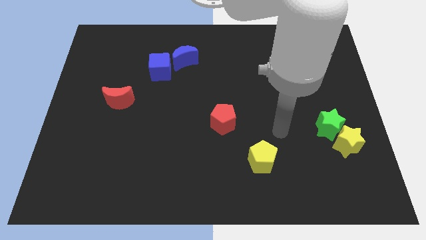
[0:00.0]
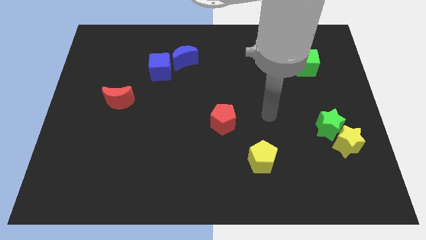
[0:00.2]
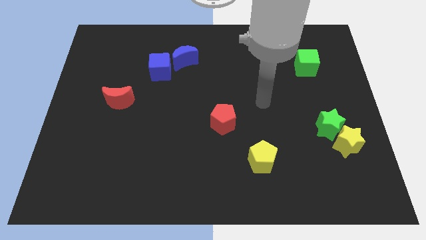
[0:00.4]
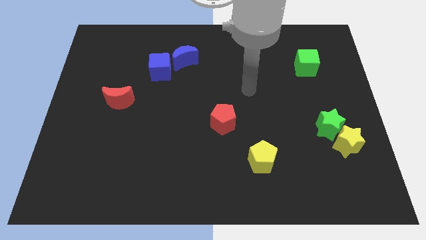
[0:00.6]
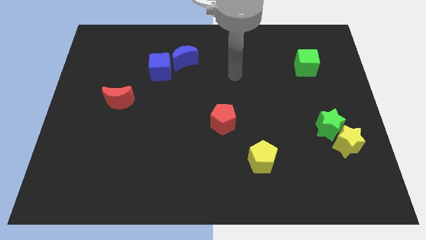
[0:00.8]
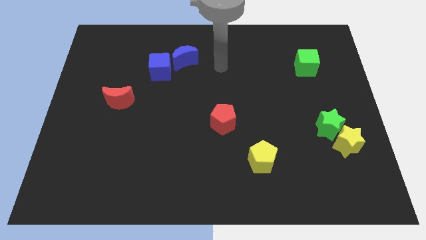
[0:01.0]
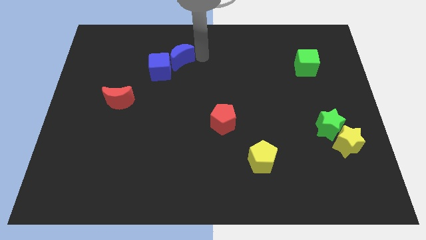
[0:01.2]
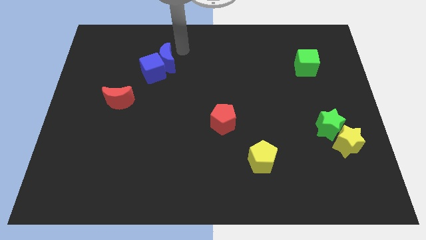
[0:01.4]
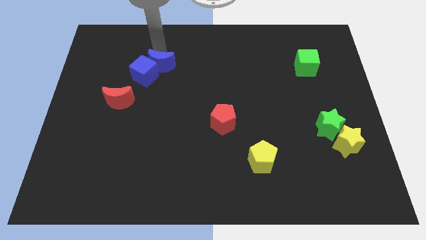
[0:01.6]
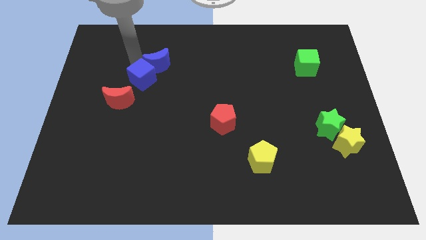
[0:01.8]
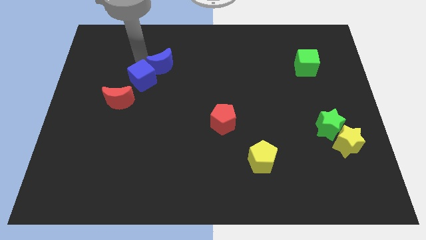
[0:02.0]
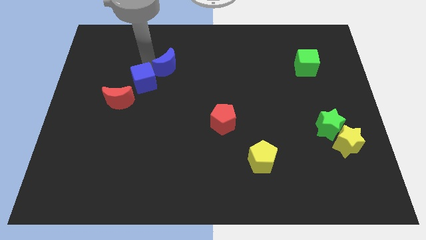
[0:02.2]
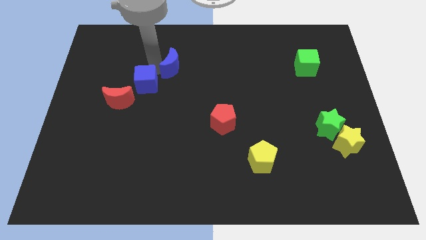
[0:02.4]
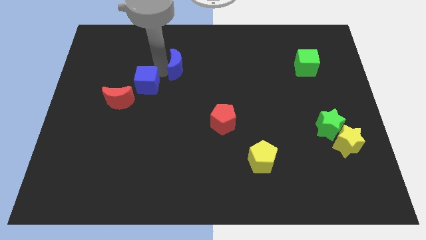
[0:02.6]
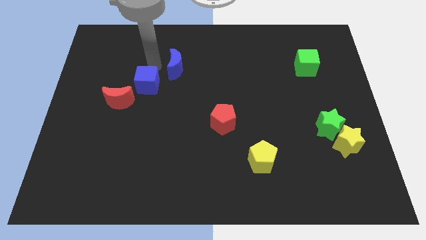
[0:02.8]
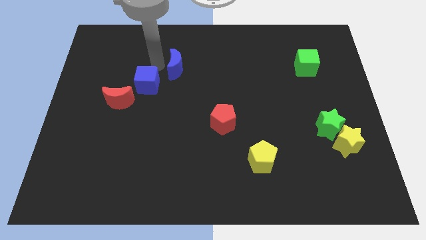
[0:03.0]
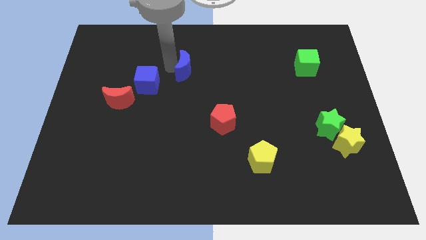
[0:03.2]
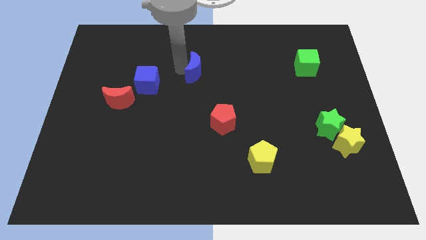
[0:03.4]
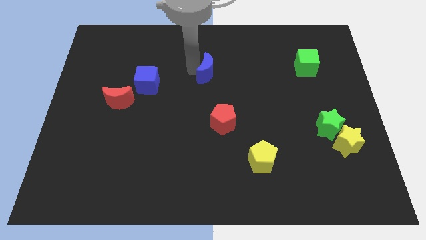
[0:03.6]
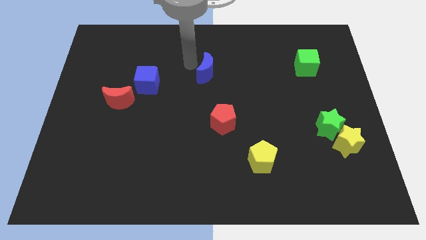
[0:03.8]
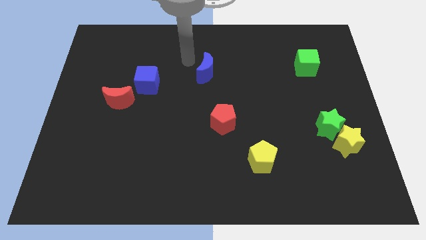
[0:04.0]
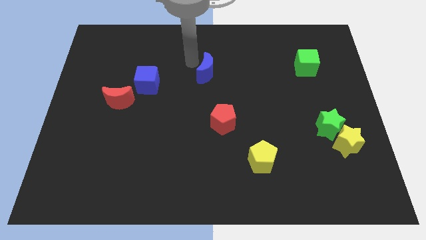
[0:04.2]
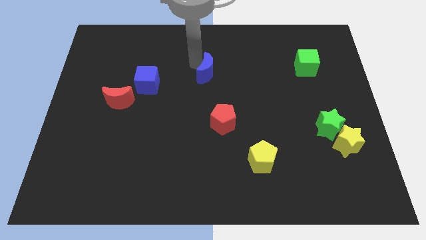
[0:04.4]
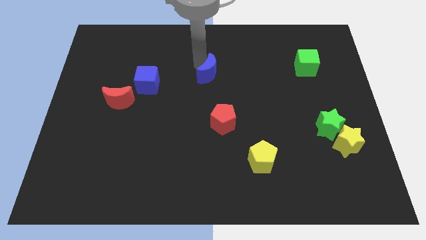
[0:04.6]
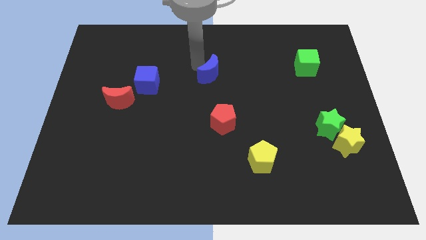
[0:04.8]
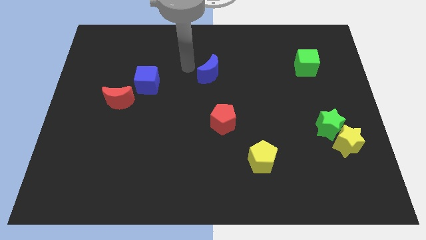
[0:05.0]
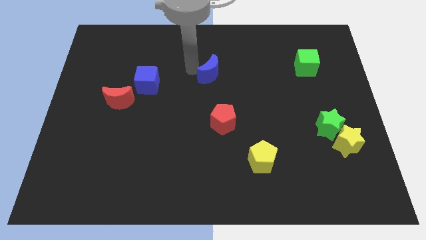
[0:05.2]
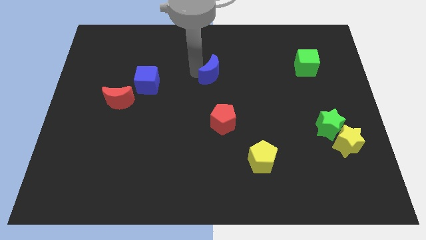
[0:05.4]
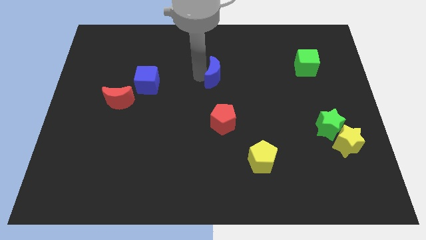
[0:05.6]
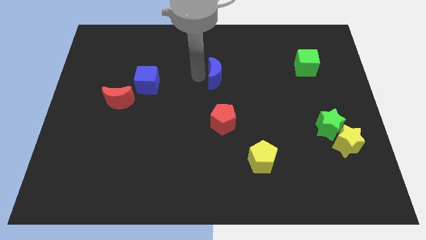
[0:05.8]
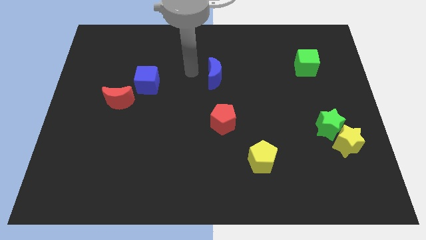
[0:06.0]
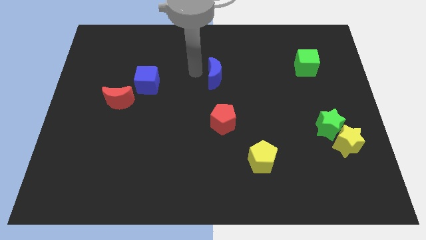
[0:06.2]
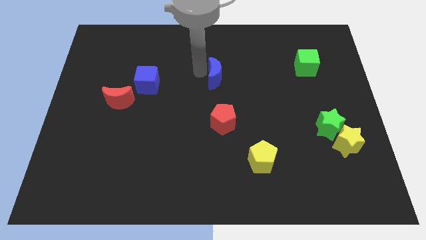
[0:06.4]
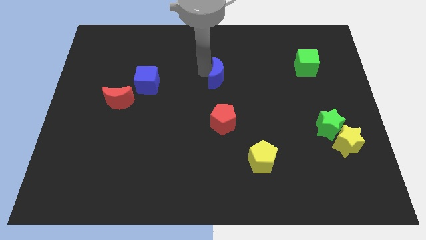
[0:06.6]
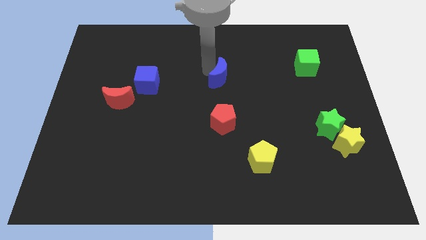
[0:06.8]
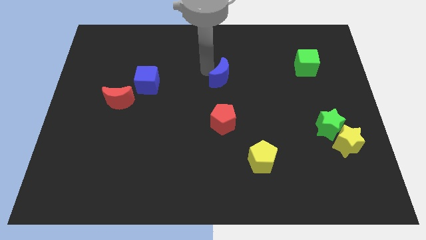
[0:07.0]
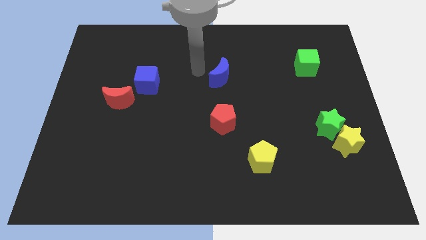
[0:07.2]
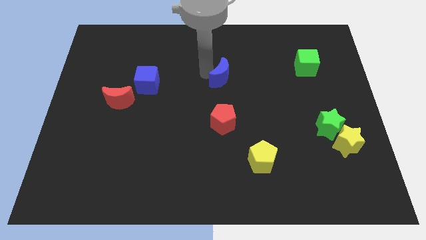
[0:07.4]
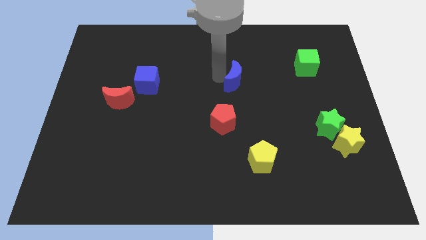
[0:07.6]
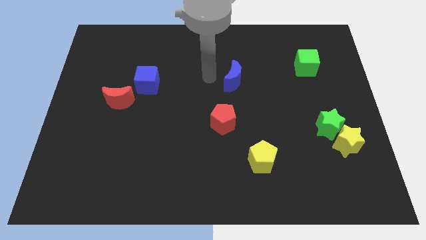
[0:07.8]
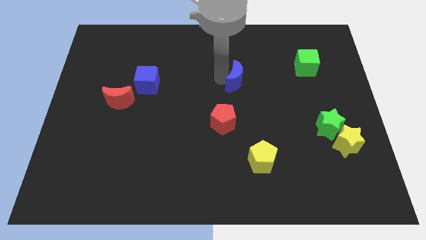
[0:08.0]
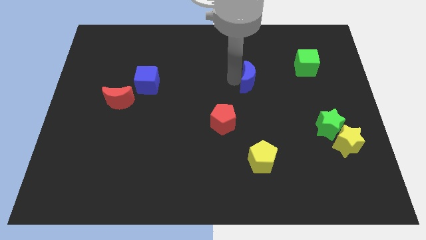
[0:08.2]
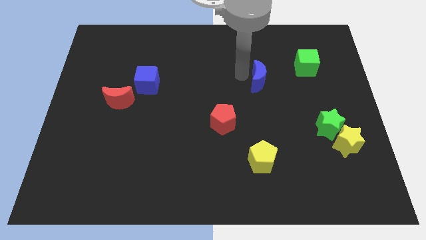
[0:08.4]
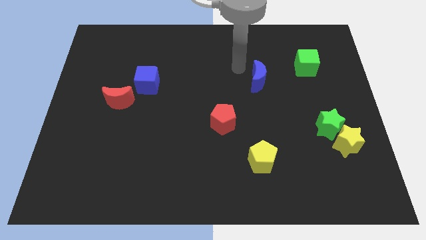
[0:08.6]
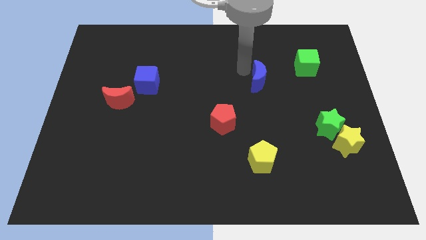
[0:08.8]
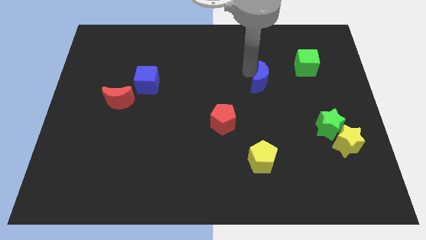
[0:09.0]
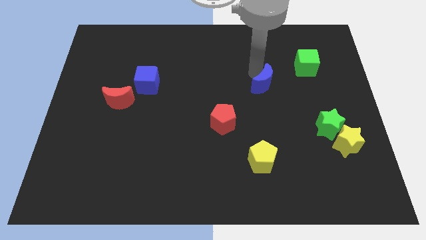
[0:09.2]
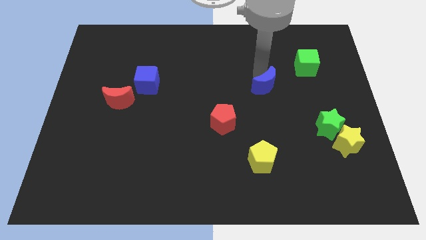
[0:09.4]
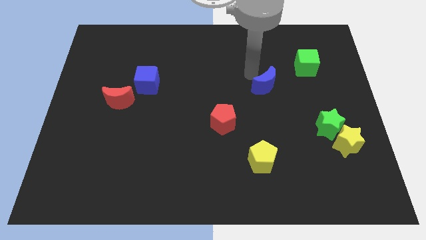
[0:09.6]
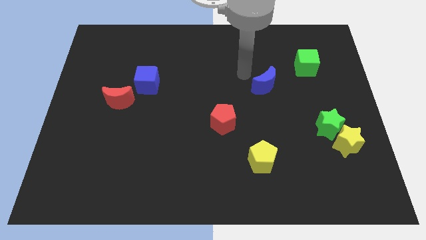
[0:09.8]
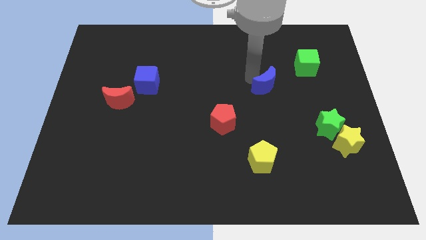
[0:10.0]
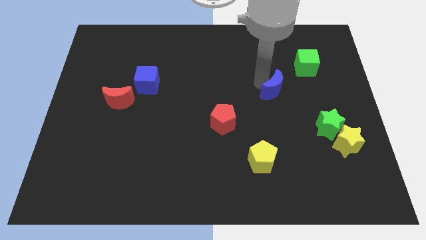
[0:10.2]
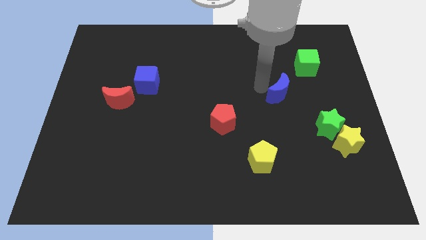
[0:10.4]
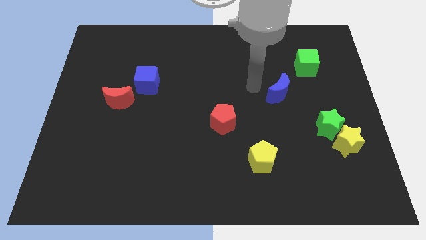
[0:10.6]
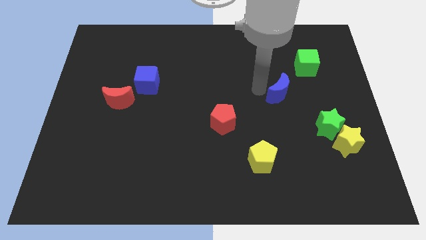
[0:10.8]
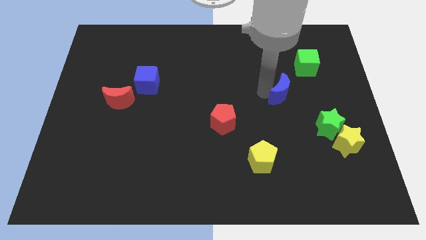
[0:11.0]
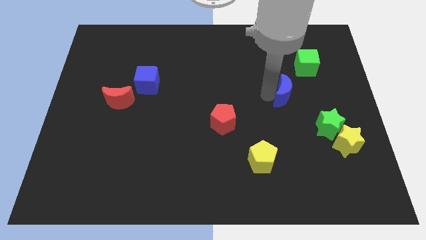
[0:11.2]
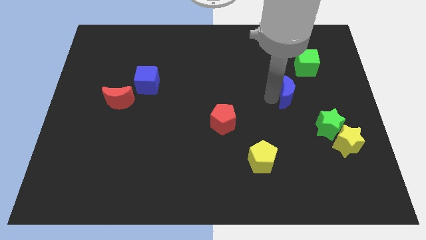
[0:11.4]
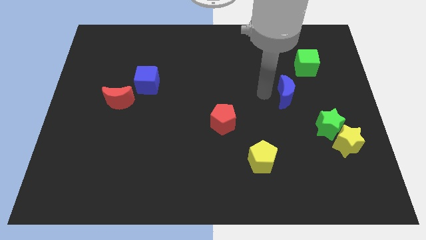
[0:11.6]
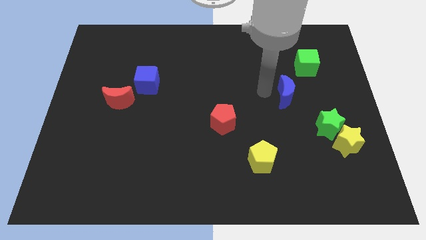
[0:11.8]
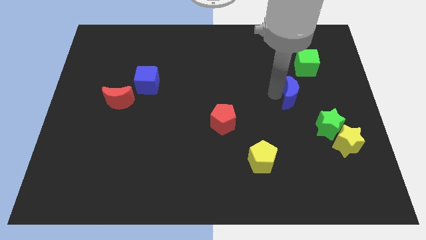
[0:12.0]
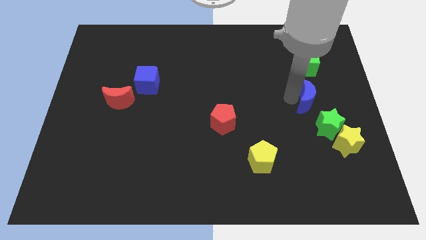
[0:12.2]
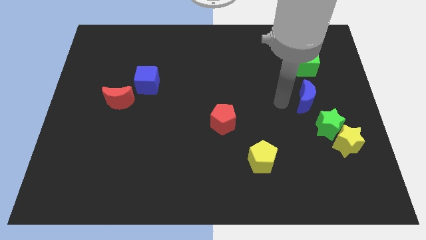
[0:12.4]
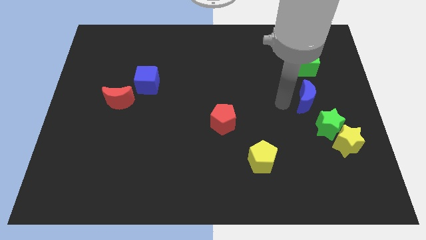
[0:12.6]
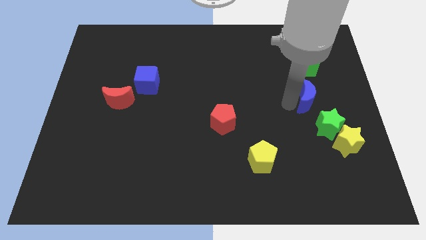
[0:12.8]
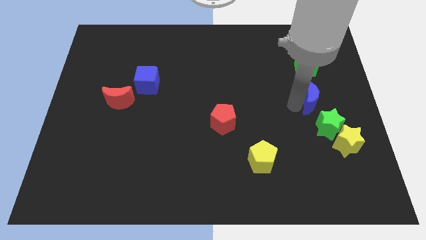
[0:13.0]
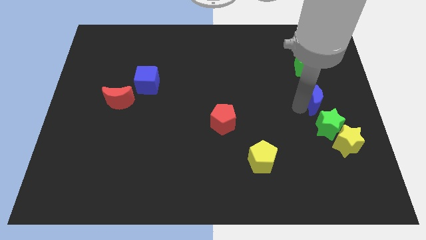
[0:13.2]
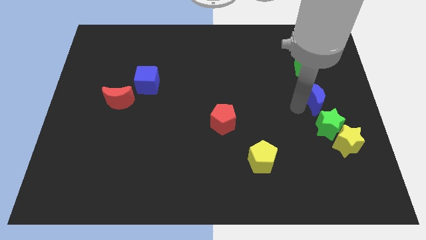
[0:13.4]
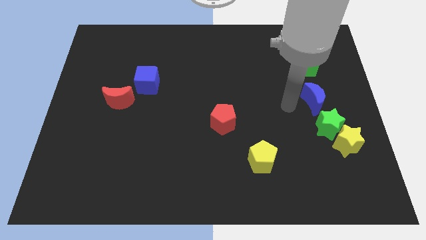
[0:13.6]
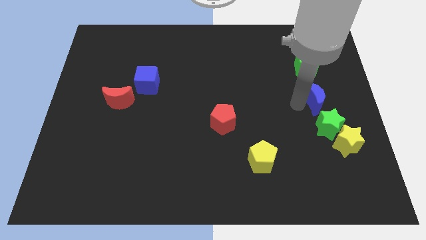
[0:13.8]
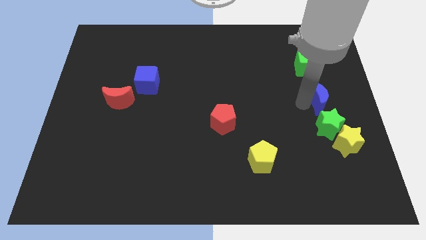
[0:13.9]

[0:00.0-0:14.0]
slide the blue moon to the right side
